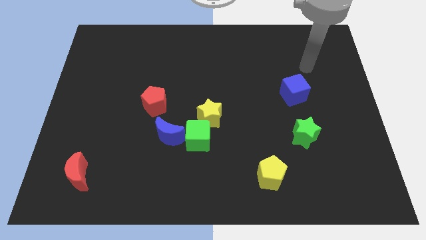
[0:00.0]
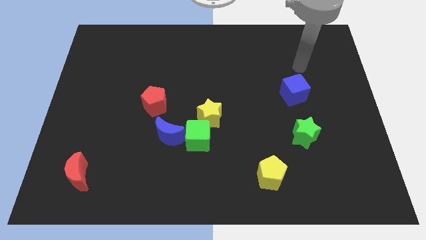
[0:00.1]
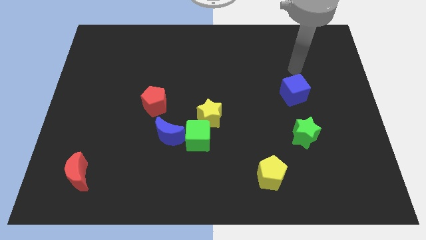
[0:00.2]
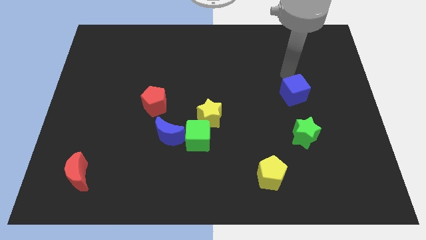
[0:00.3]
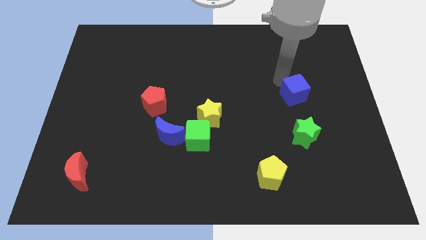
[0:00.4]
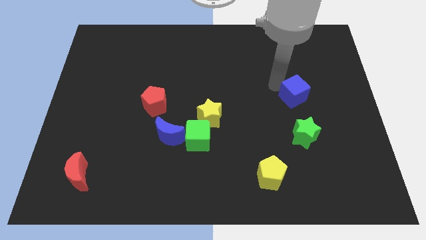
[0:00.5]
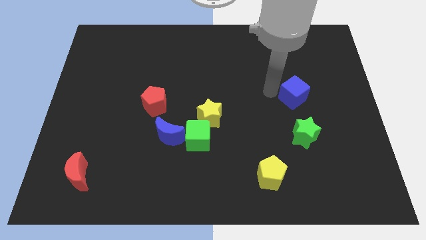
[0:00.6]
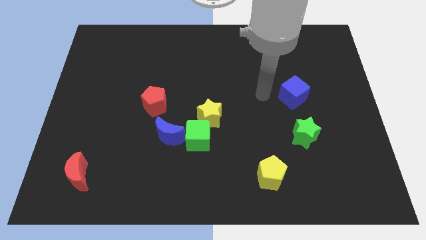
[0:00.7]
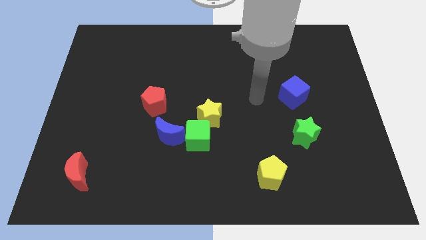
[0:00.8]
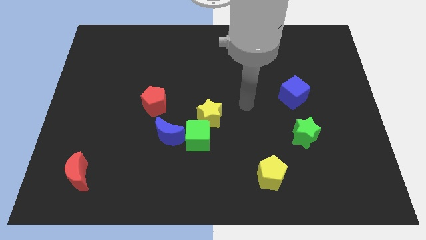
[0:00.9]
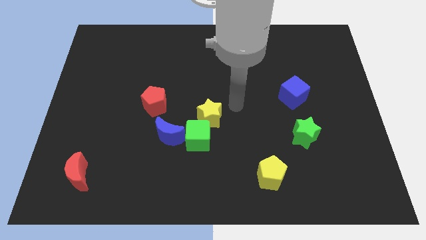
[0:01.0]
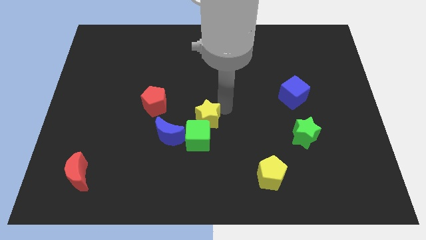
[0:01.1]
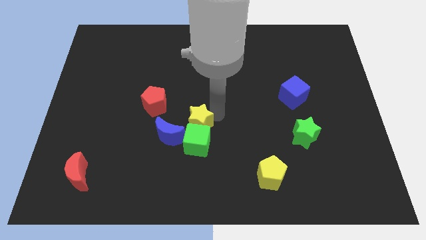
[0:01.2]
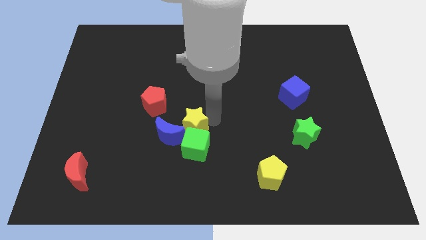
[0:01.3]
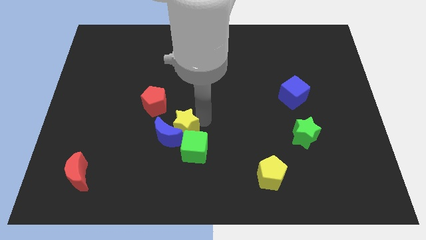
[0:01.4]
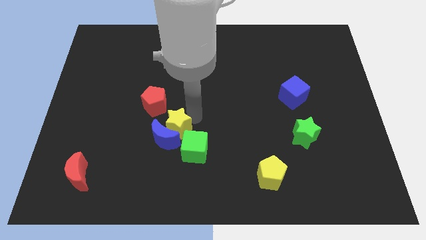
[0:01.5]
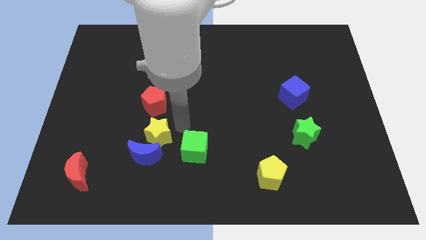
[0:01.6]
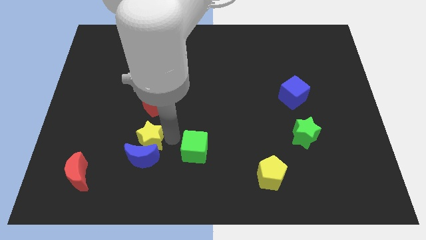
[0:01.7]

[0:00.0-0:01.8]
separate the green cube from the blue moon and yellow star

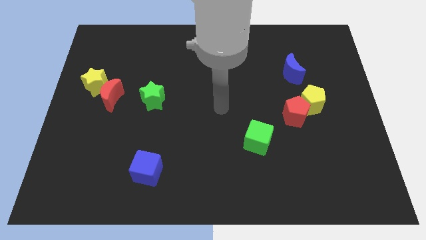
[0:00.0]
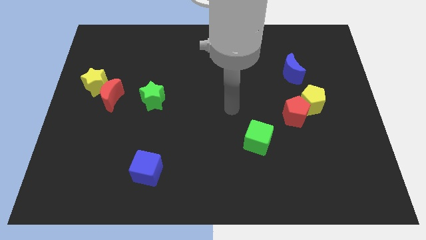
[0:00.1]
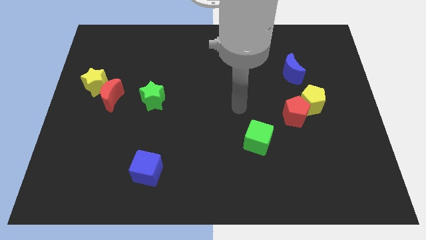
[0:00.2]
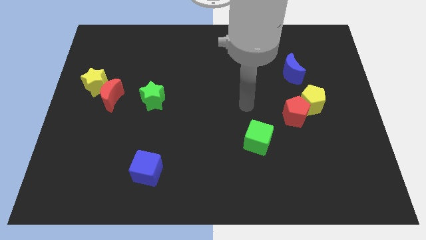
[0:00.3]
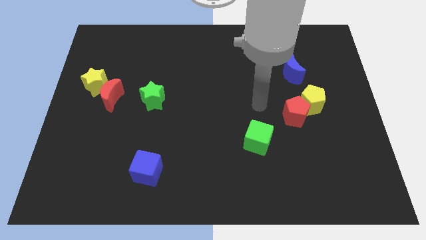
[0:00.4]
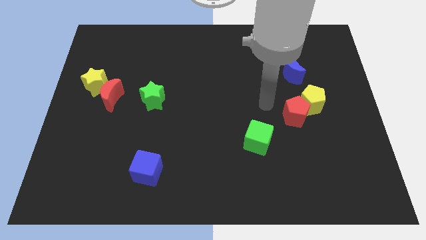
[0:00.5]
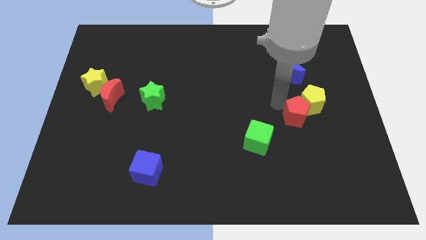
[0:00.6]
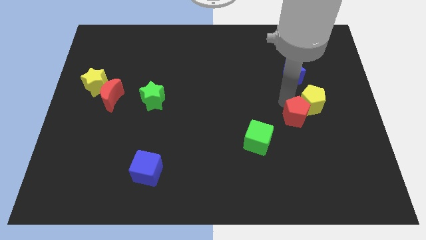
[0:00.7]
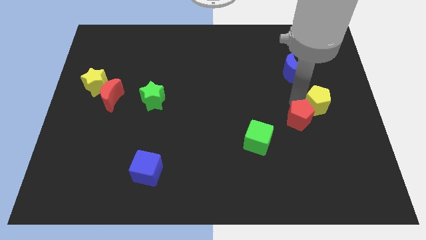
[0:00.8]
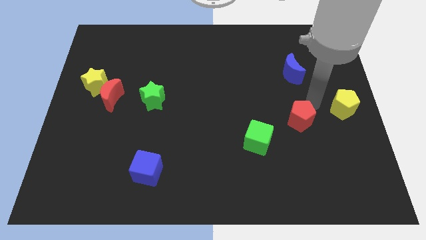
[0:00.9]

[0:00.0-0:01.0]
pull the red pentagon apart from the yellow pentagon

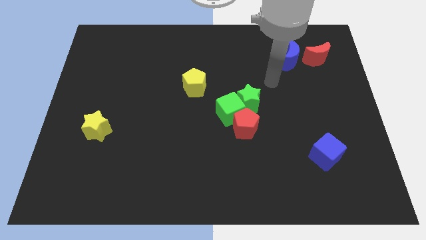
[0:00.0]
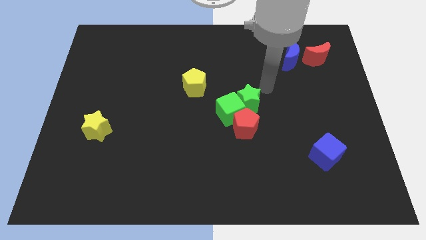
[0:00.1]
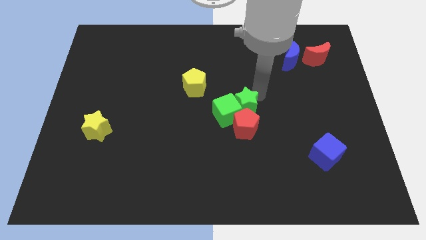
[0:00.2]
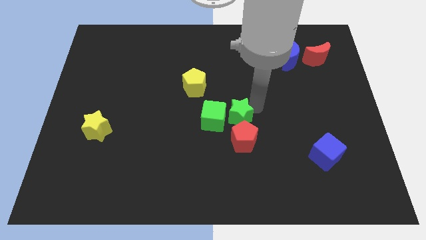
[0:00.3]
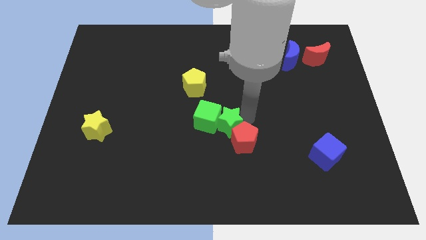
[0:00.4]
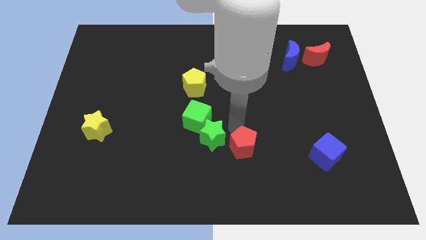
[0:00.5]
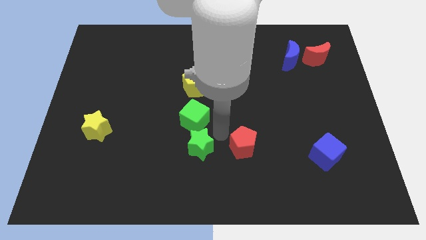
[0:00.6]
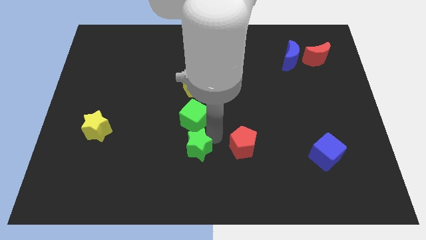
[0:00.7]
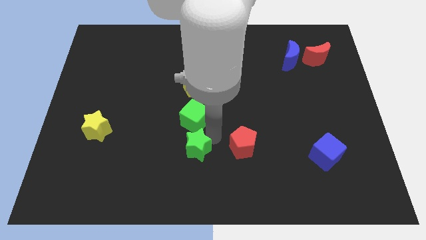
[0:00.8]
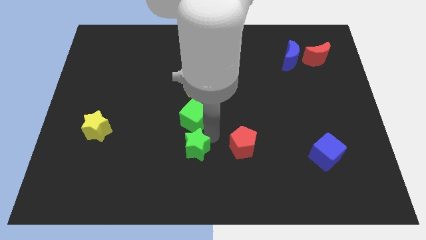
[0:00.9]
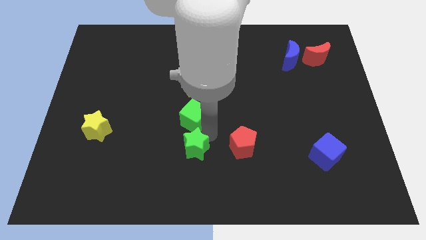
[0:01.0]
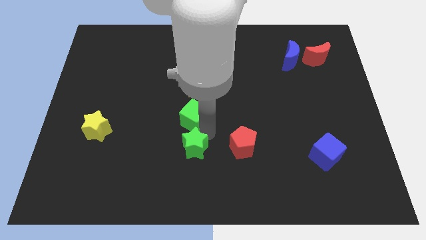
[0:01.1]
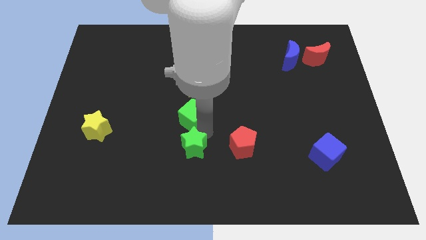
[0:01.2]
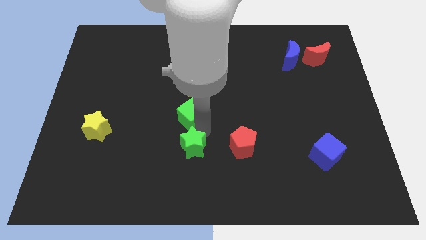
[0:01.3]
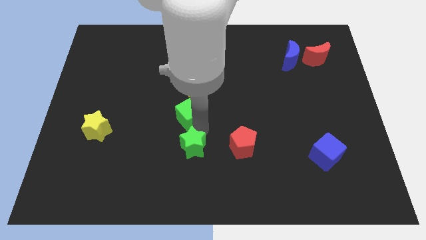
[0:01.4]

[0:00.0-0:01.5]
pull the green cube apart from the red pentagon and green star

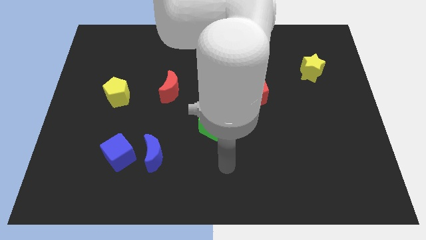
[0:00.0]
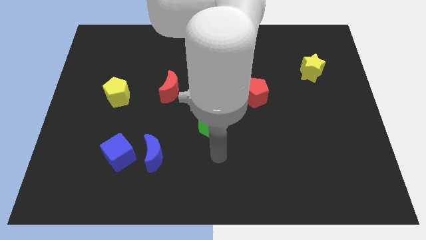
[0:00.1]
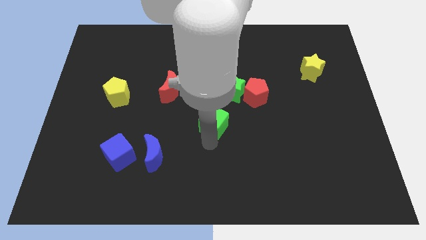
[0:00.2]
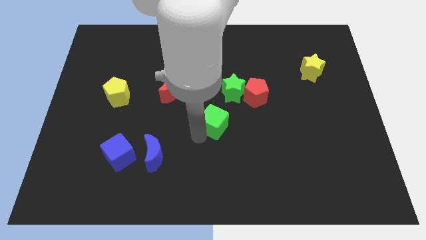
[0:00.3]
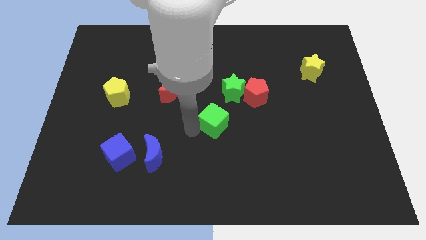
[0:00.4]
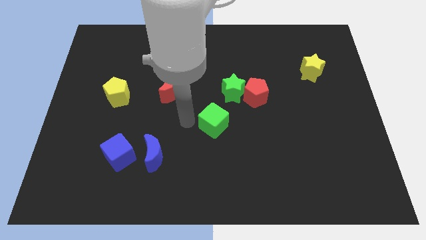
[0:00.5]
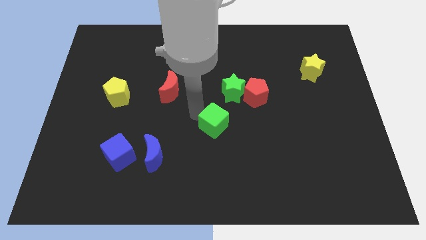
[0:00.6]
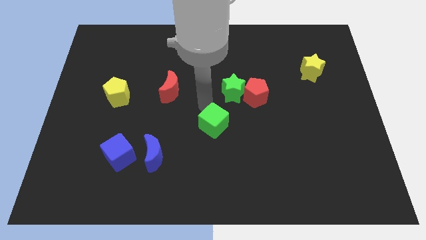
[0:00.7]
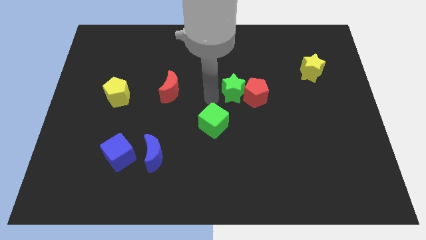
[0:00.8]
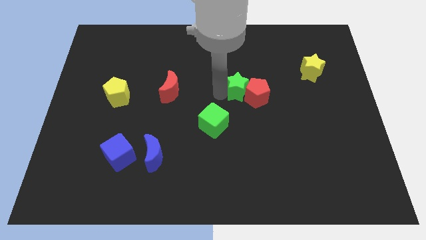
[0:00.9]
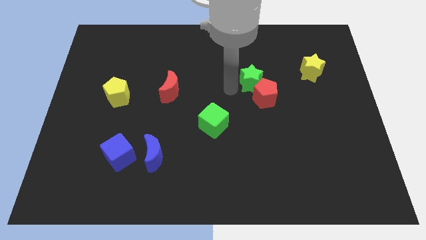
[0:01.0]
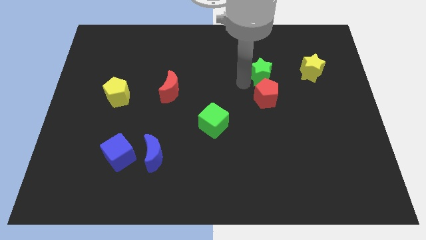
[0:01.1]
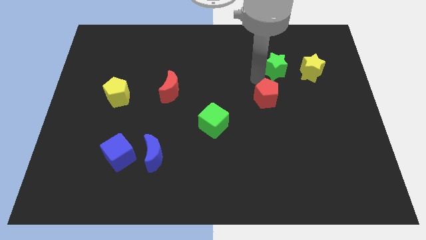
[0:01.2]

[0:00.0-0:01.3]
separate the red pentagon from the green star

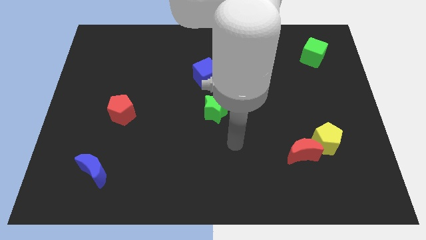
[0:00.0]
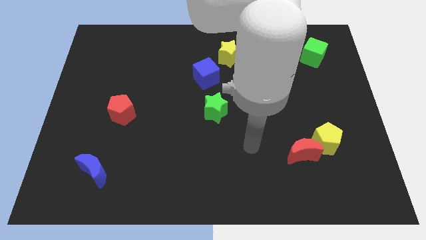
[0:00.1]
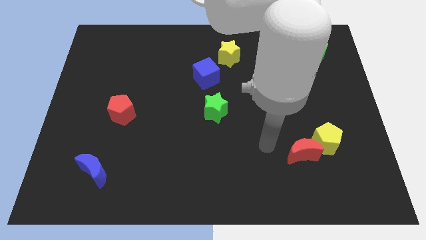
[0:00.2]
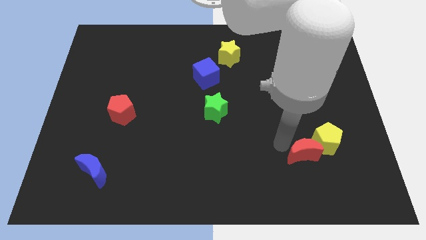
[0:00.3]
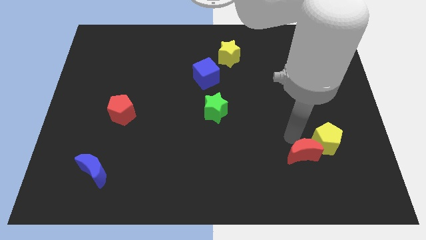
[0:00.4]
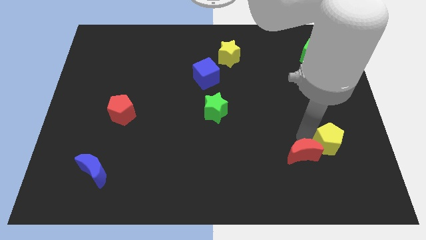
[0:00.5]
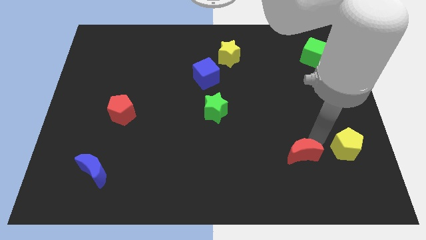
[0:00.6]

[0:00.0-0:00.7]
pull the red moon apart from the yellow pentagon

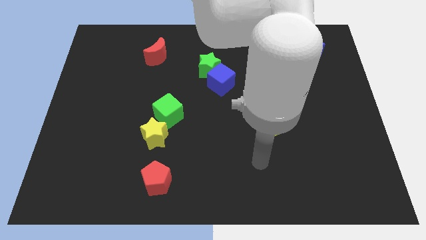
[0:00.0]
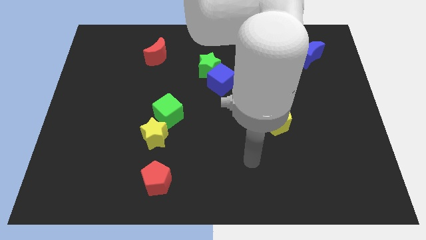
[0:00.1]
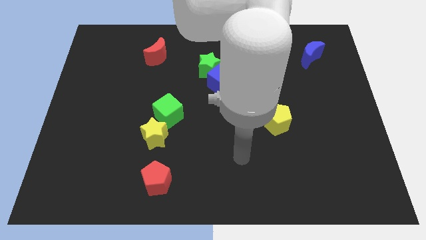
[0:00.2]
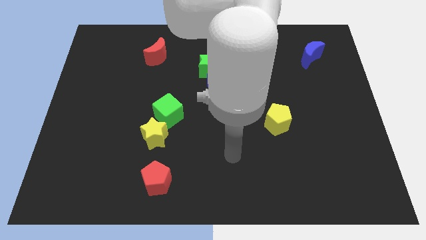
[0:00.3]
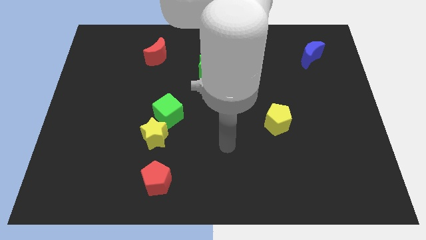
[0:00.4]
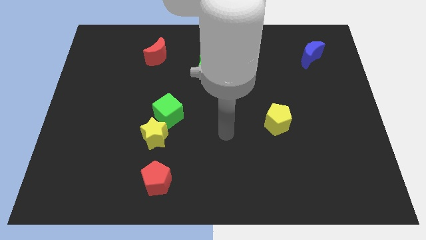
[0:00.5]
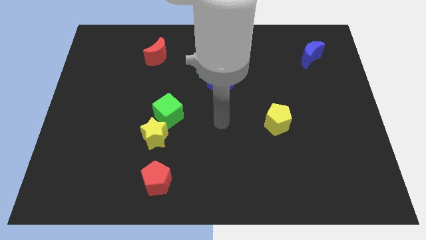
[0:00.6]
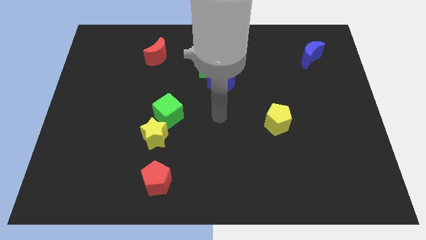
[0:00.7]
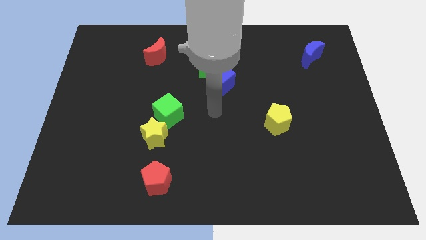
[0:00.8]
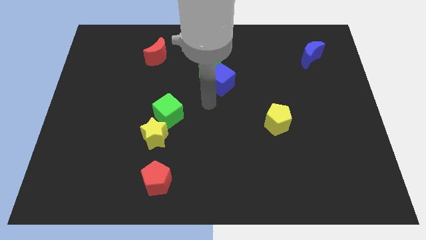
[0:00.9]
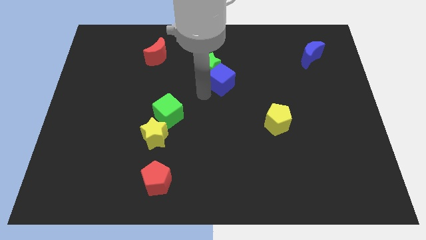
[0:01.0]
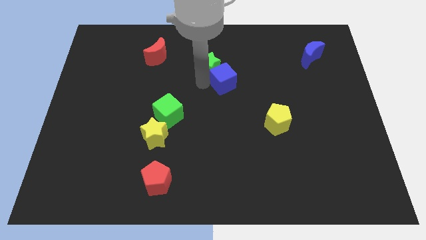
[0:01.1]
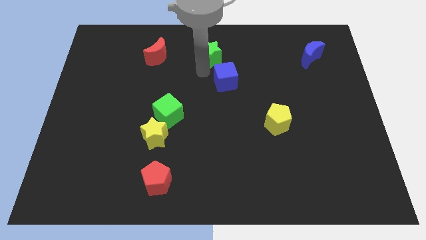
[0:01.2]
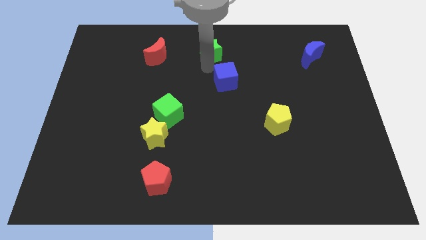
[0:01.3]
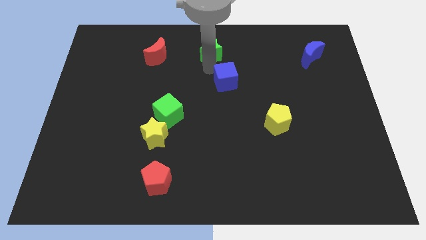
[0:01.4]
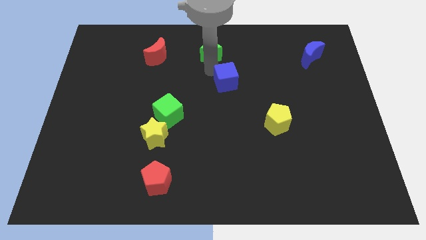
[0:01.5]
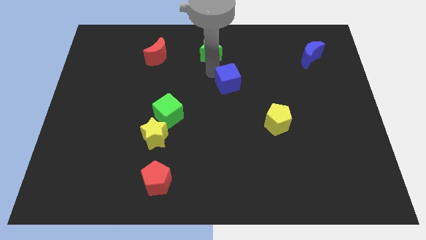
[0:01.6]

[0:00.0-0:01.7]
move the blue cube away from the green star

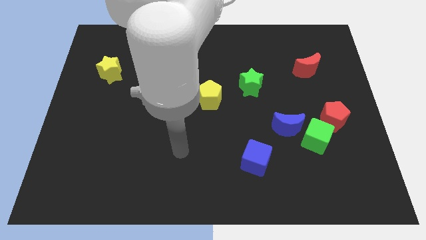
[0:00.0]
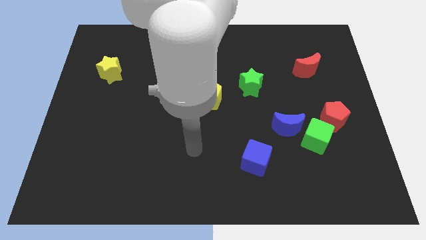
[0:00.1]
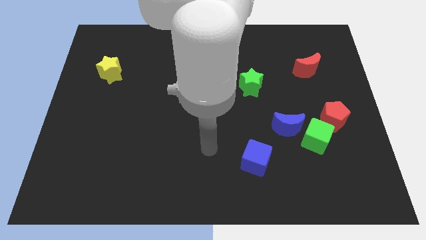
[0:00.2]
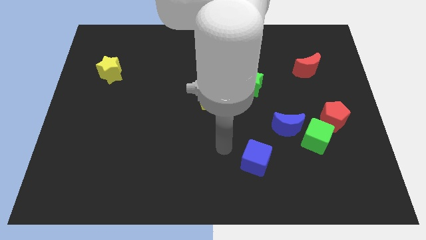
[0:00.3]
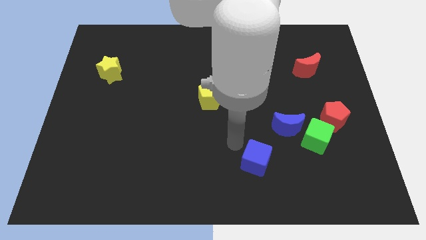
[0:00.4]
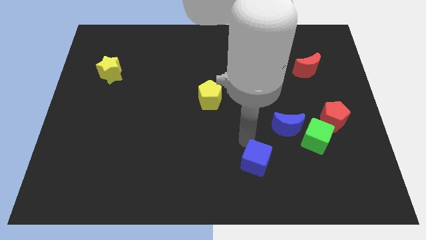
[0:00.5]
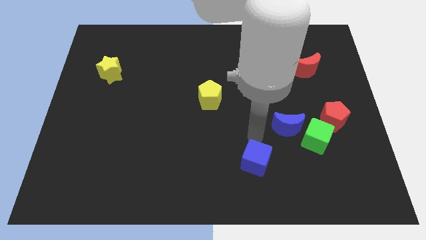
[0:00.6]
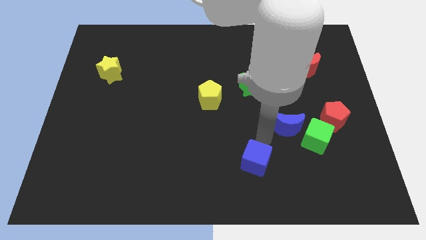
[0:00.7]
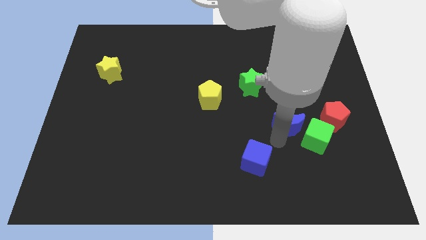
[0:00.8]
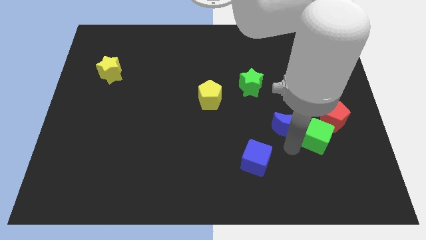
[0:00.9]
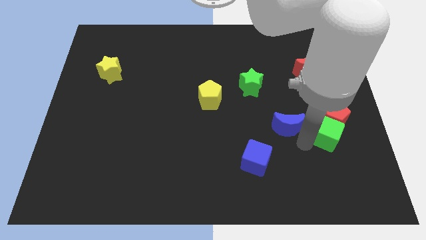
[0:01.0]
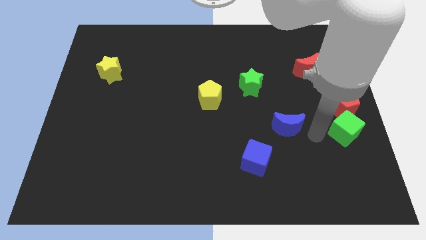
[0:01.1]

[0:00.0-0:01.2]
separate the blue moon from the green cube
